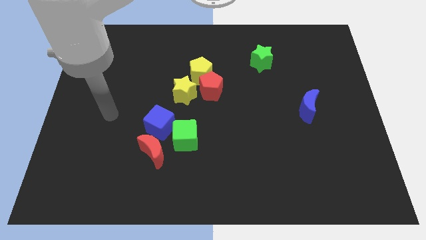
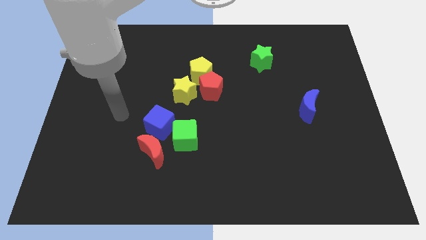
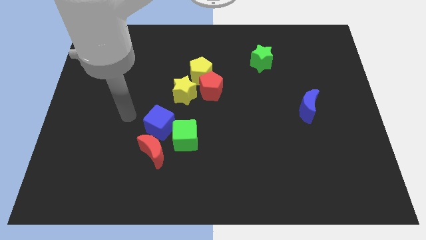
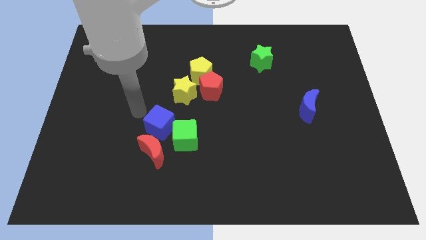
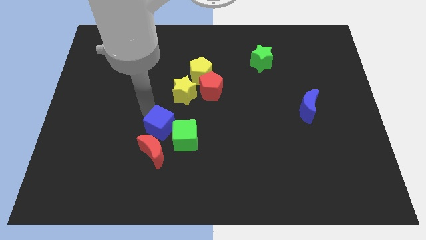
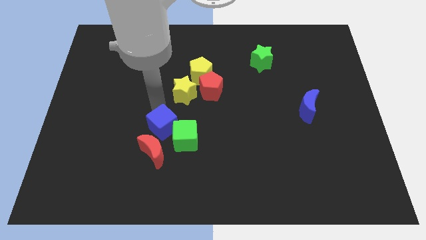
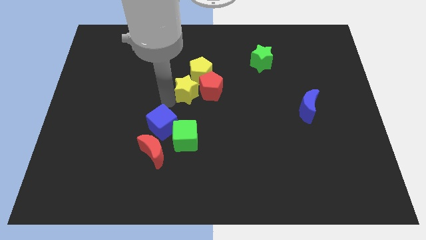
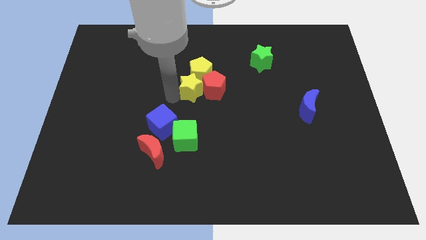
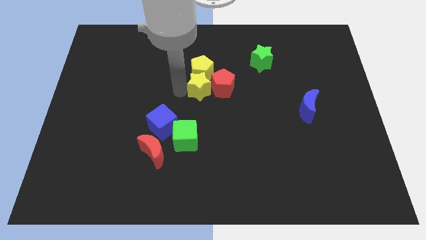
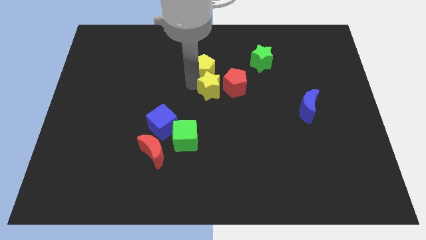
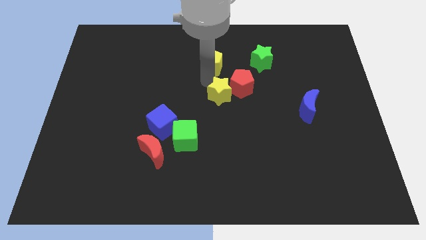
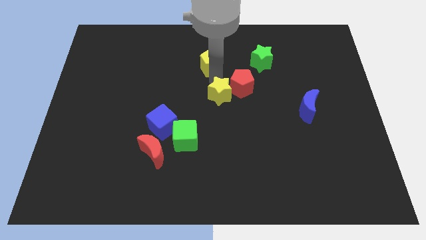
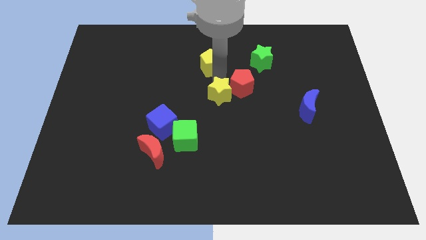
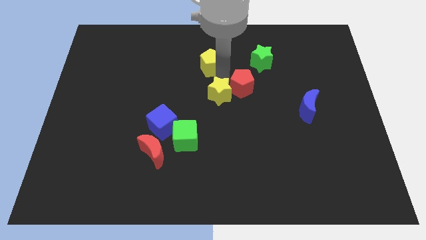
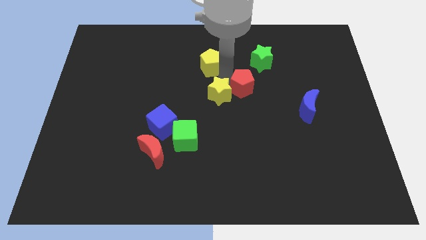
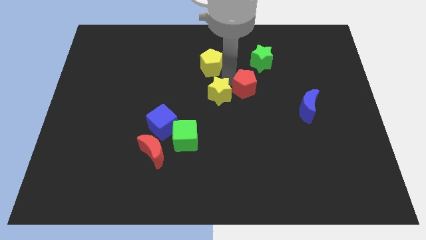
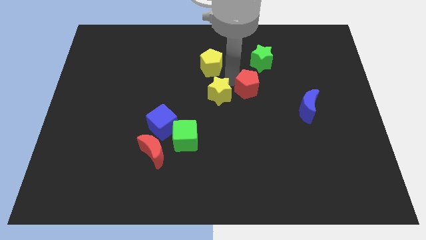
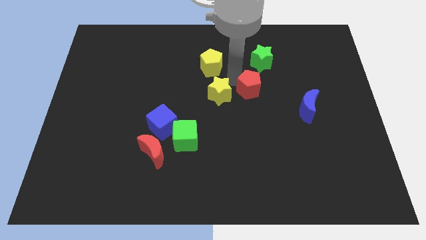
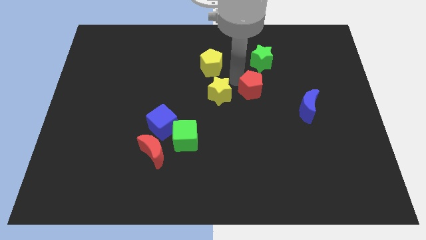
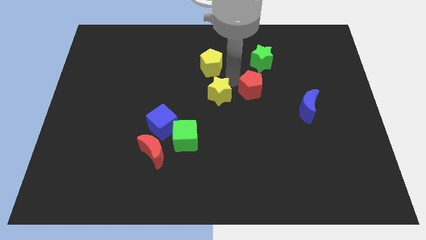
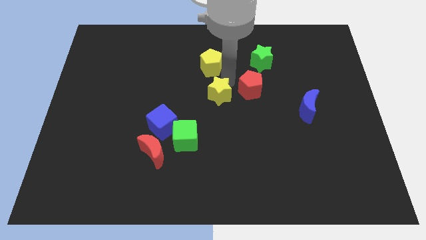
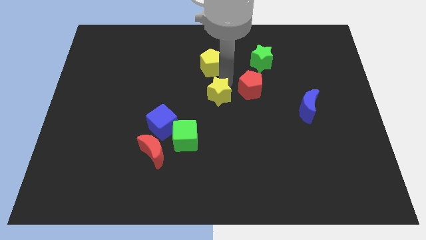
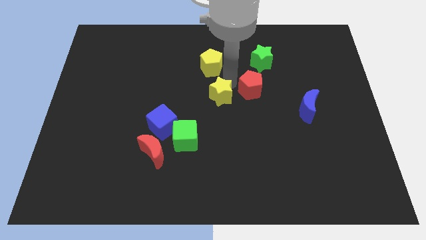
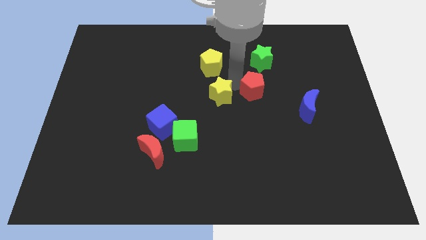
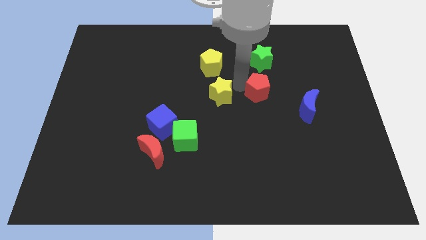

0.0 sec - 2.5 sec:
pull the red pentagon apart from the yellow pentagon and yellow star

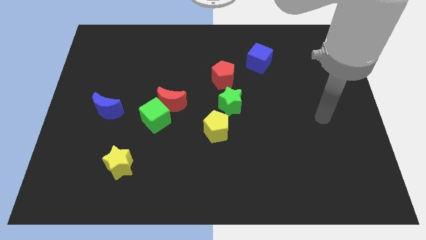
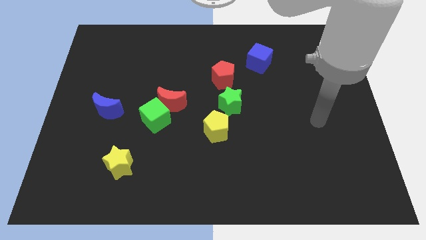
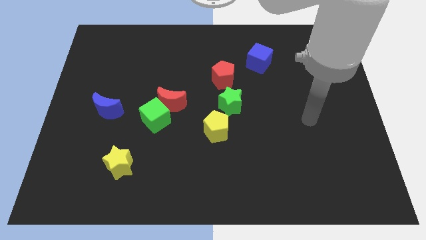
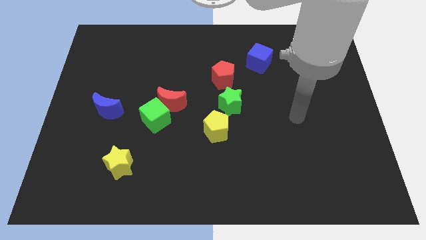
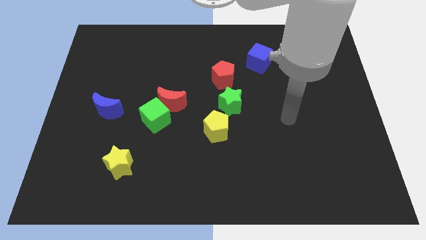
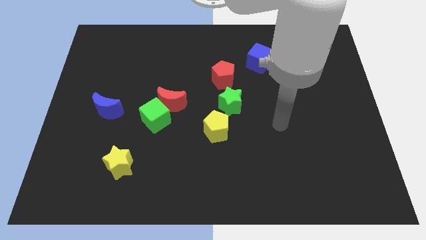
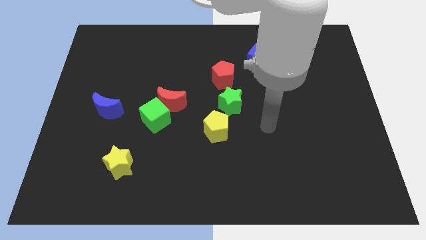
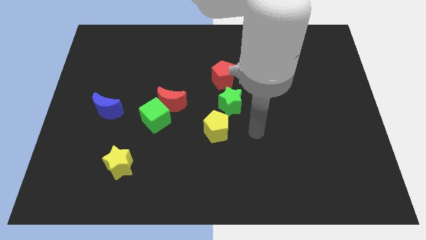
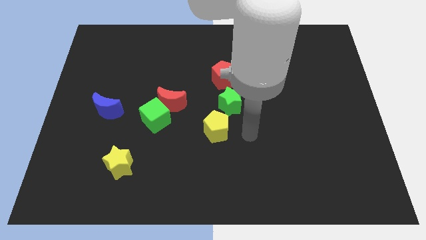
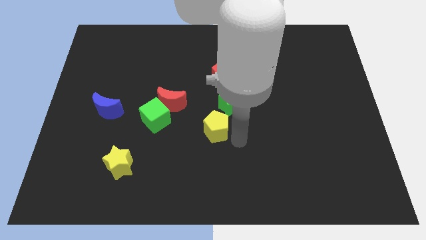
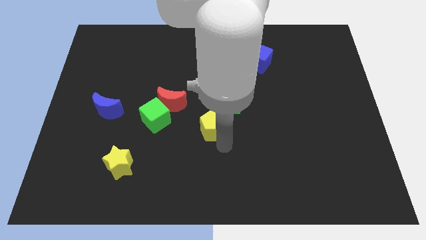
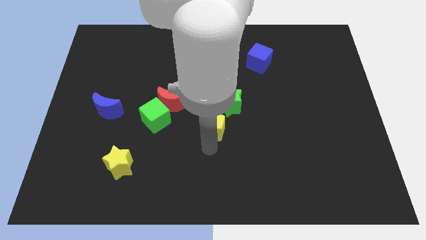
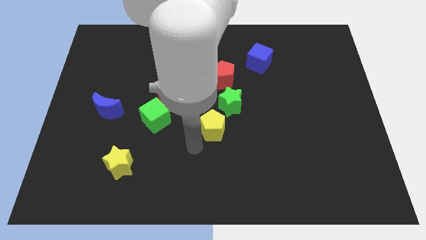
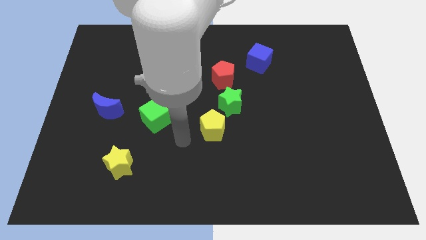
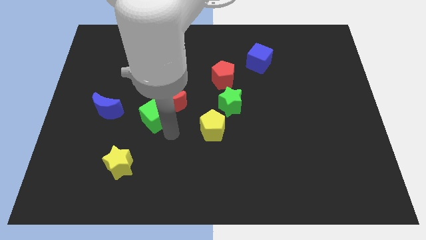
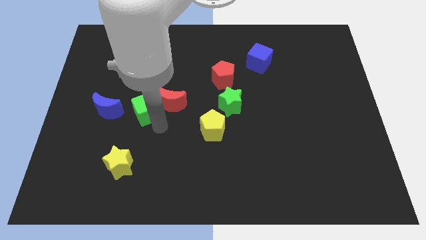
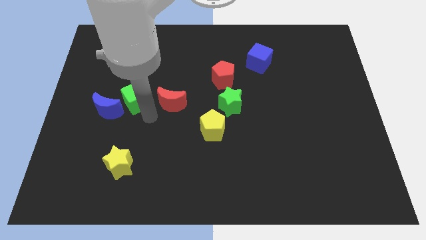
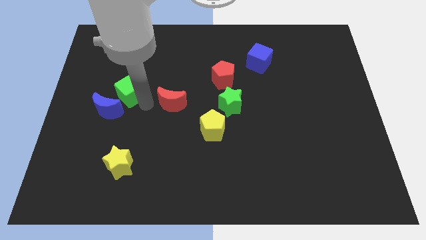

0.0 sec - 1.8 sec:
pull the red moon apart from the green cube

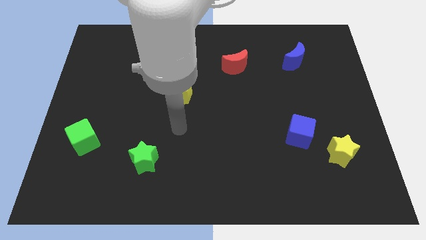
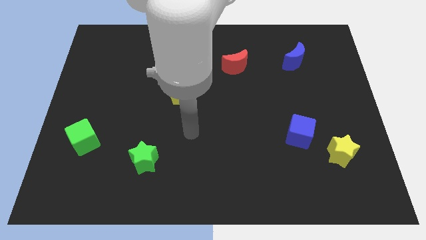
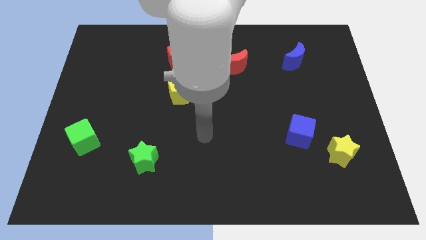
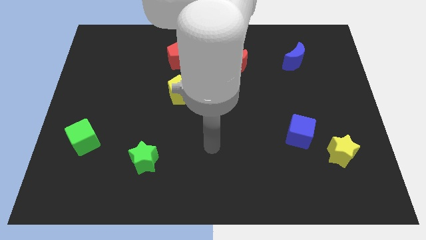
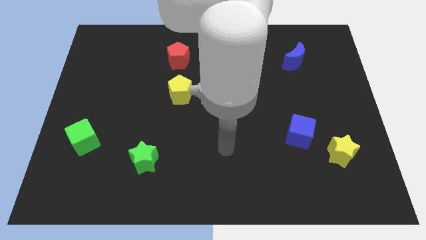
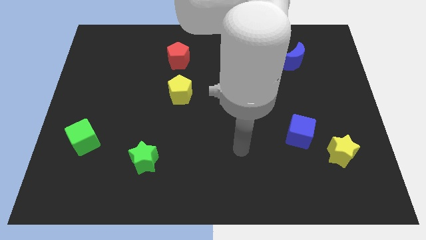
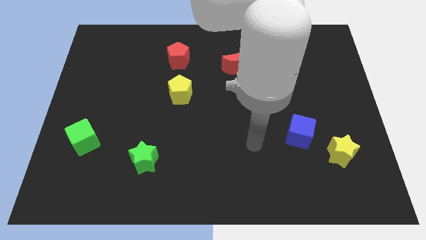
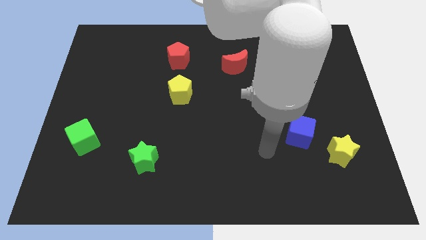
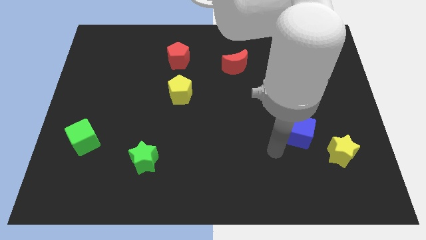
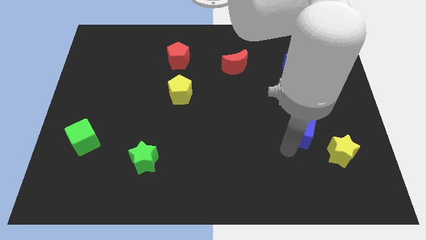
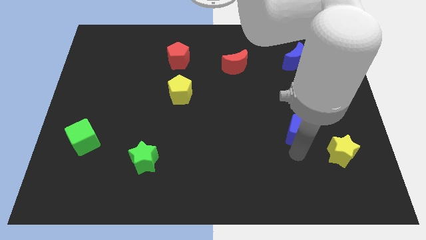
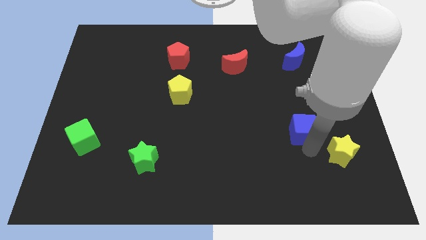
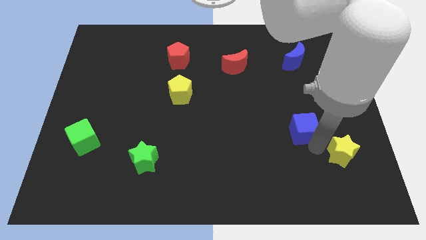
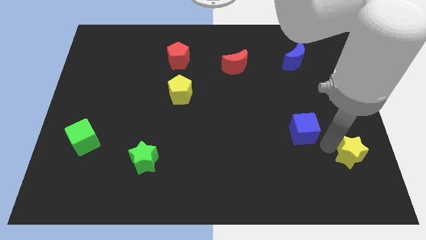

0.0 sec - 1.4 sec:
separate the blue cube from the yellow star

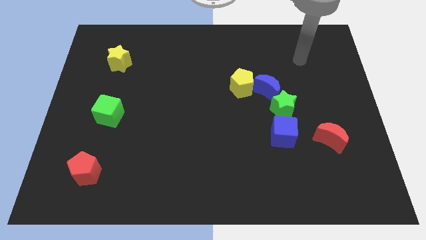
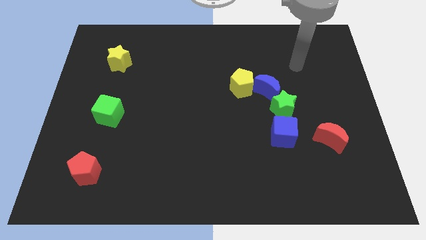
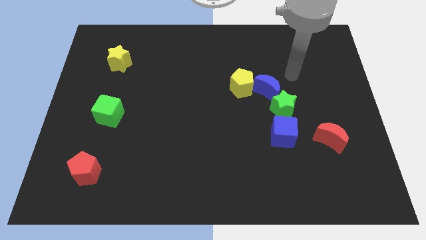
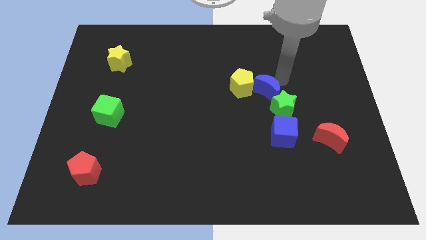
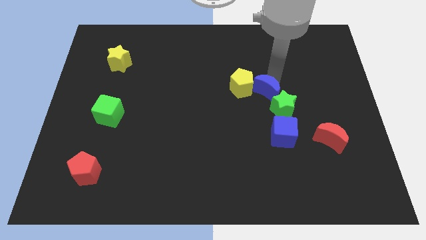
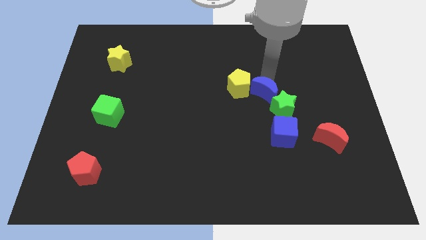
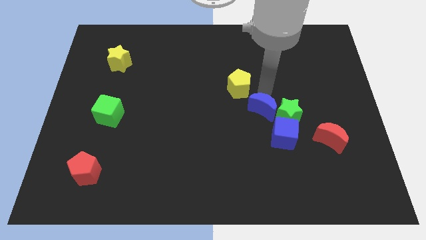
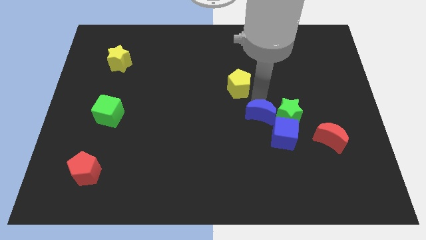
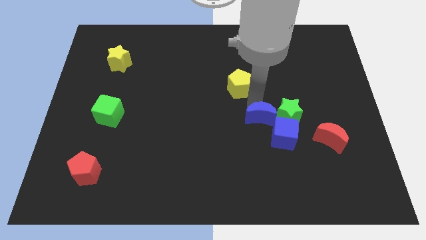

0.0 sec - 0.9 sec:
separate the yellow pentagon from the blue moon

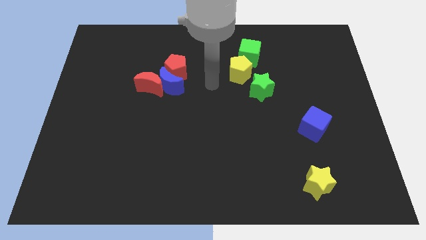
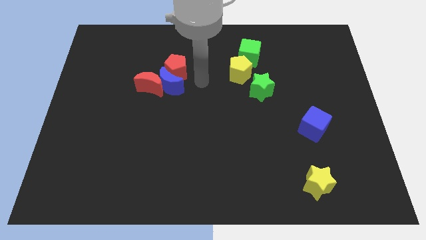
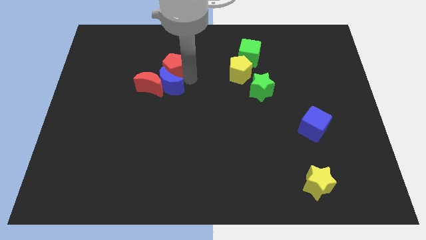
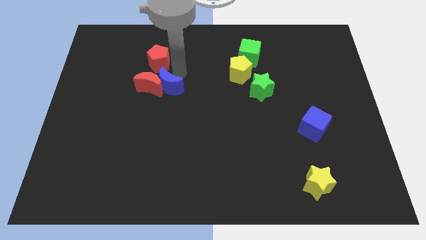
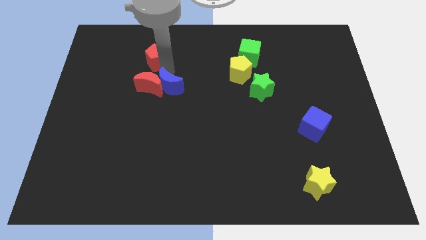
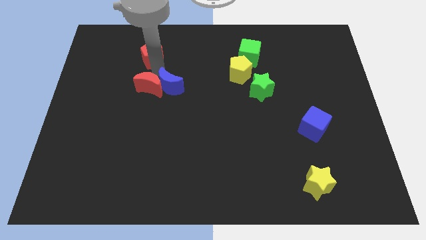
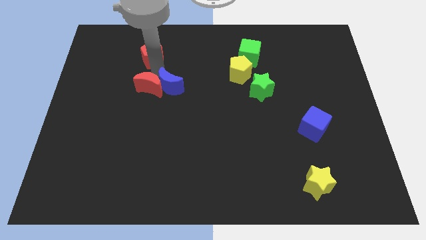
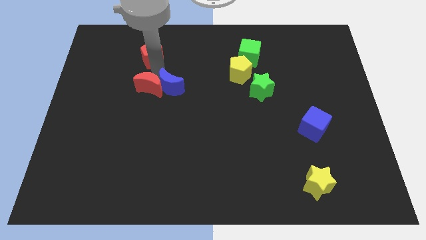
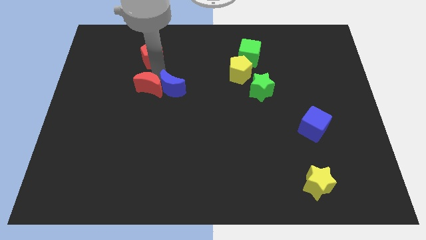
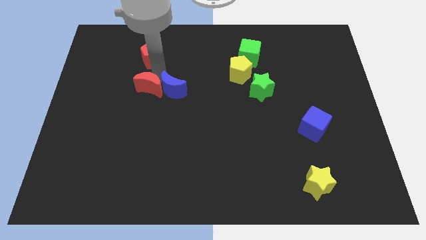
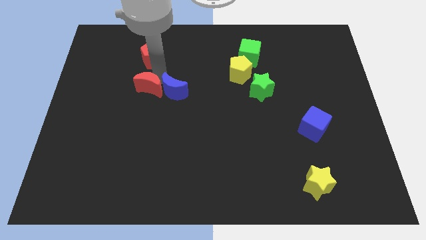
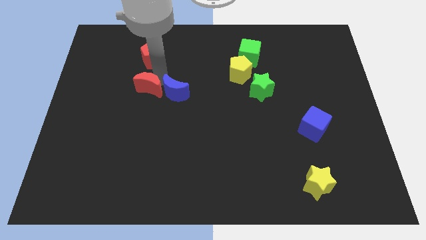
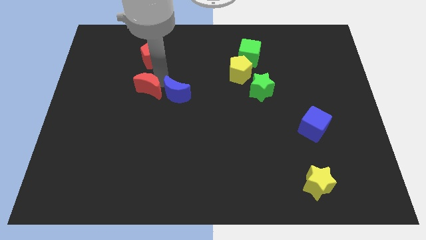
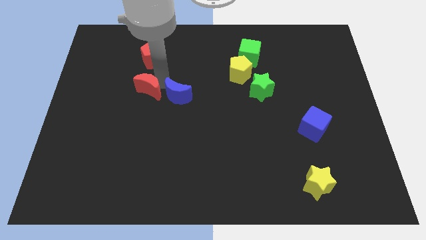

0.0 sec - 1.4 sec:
separate the blue moon from the red moon and red pentagon

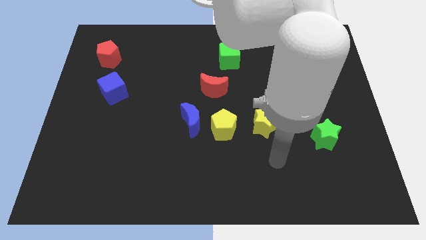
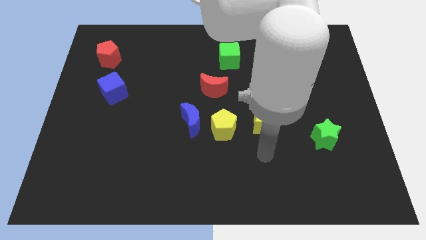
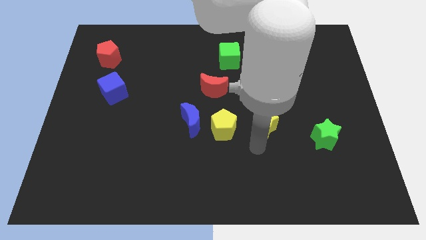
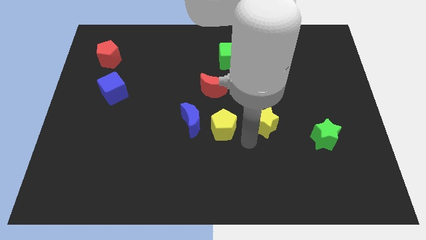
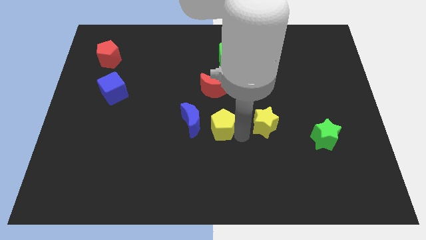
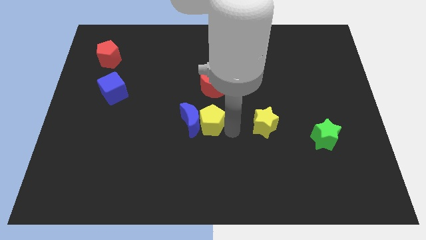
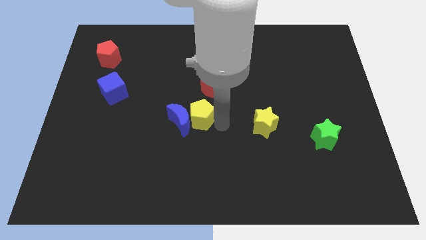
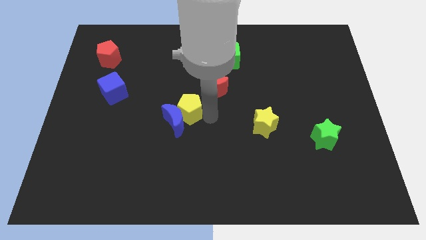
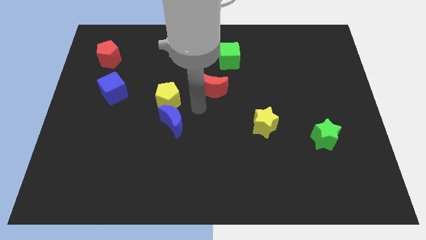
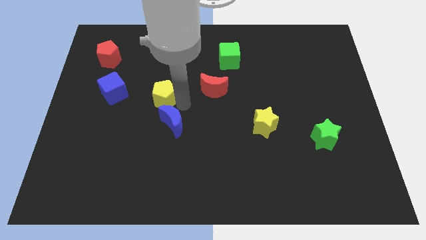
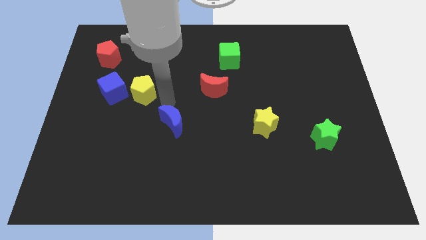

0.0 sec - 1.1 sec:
move the blue moon away from the yellow pentagon
